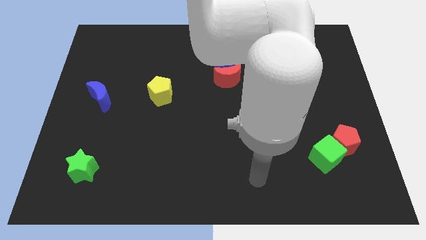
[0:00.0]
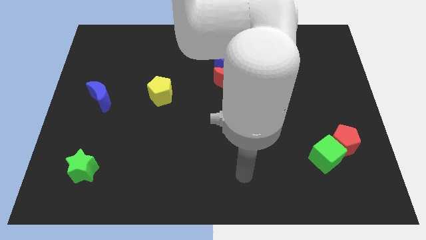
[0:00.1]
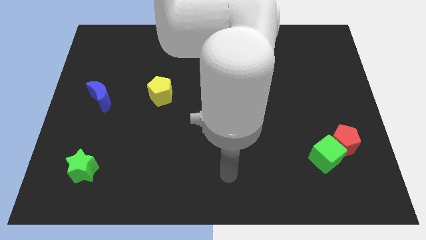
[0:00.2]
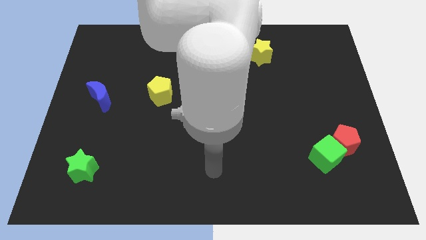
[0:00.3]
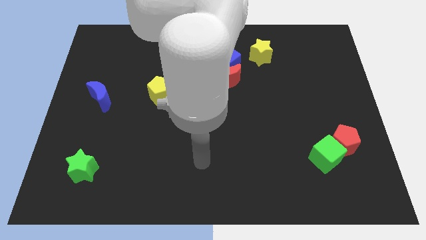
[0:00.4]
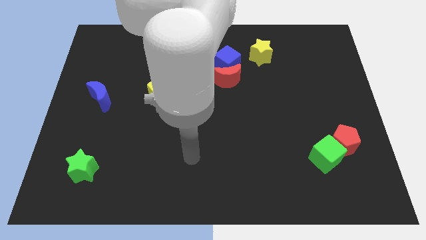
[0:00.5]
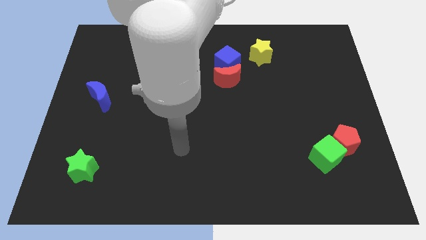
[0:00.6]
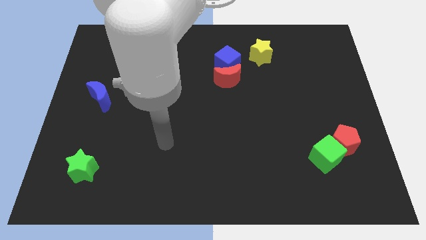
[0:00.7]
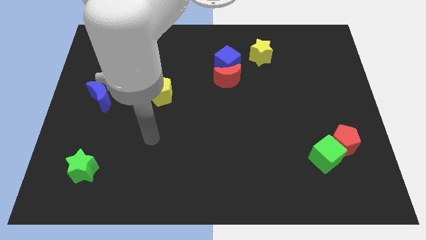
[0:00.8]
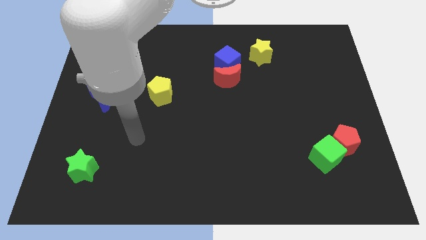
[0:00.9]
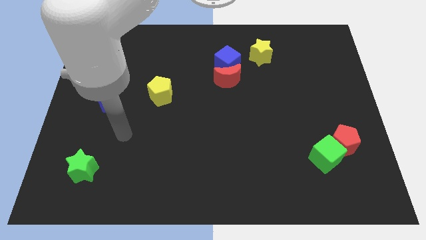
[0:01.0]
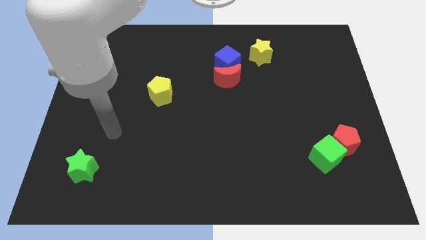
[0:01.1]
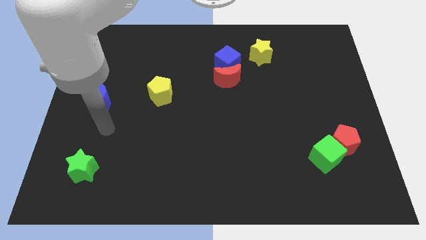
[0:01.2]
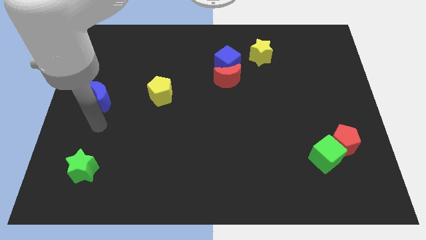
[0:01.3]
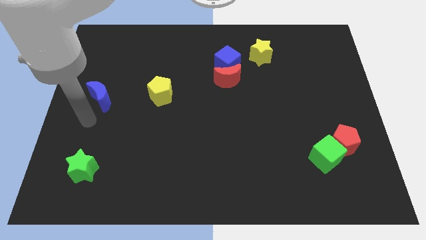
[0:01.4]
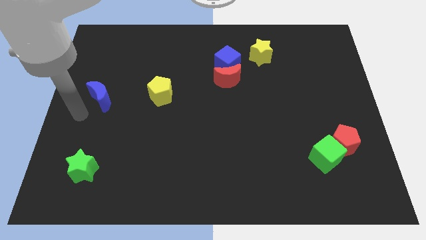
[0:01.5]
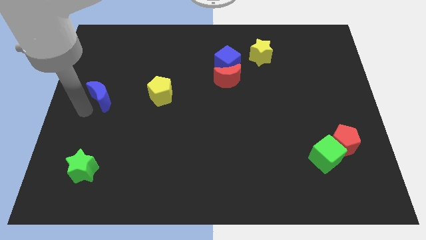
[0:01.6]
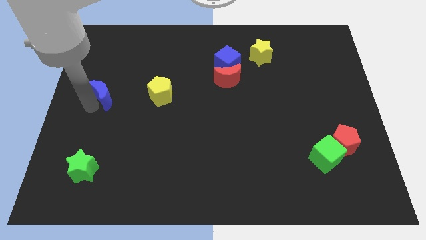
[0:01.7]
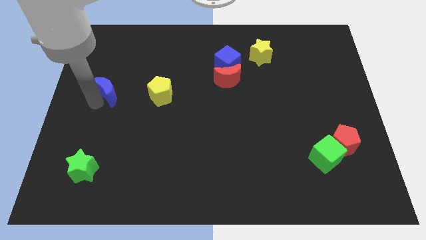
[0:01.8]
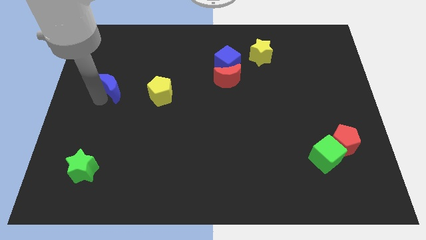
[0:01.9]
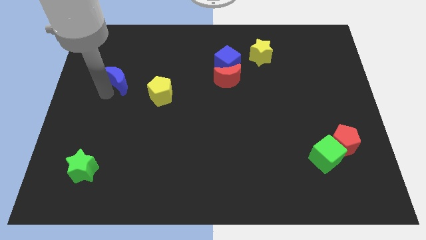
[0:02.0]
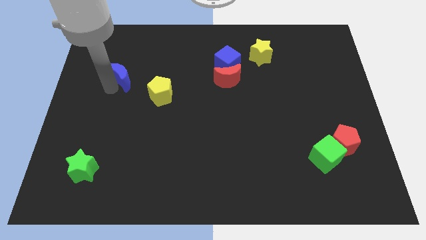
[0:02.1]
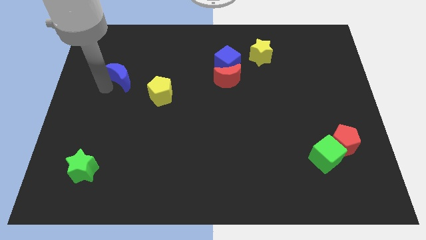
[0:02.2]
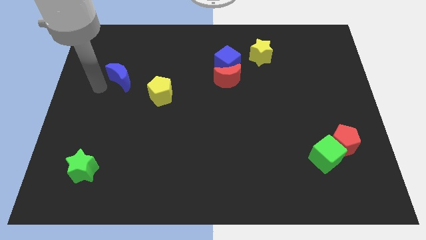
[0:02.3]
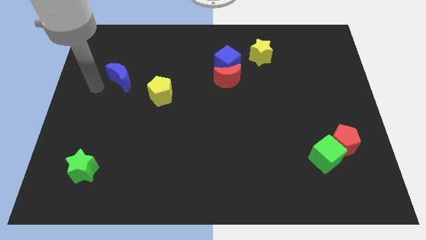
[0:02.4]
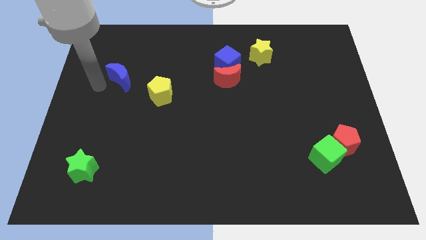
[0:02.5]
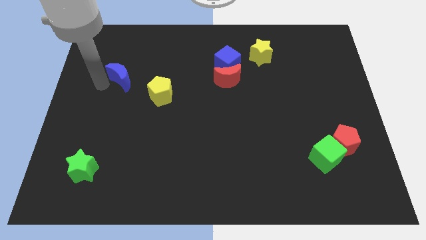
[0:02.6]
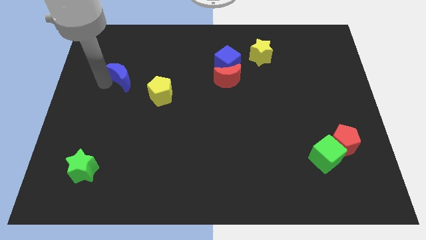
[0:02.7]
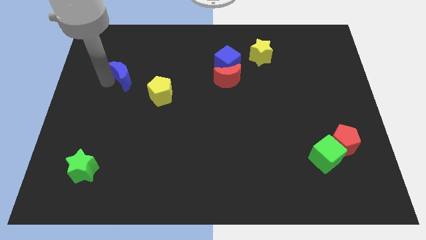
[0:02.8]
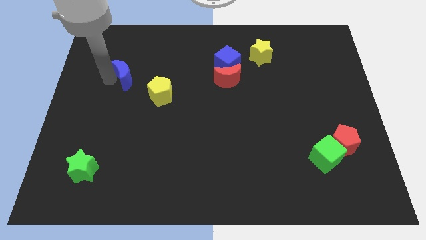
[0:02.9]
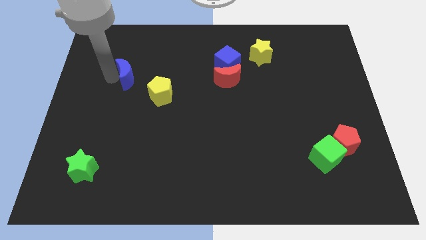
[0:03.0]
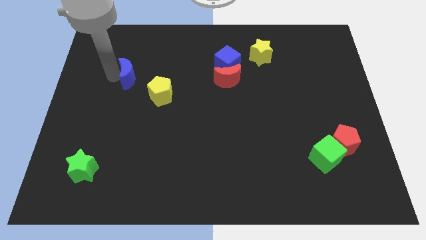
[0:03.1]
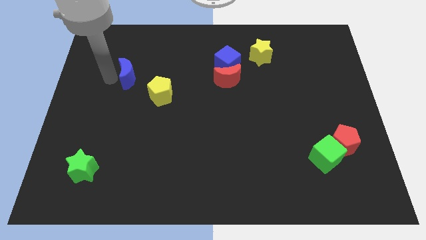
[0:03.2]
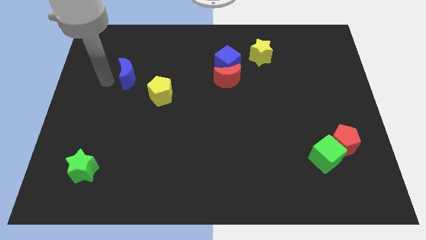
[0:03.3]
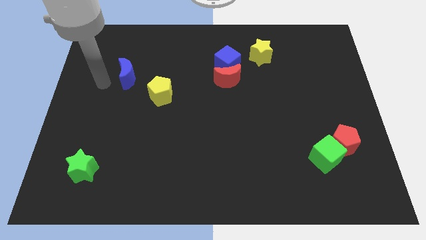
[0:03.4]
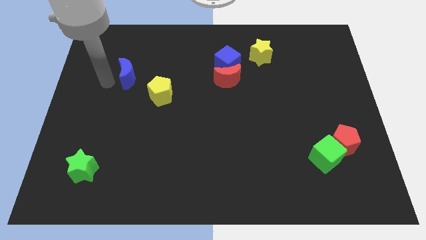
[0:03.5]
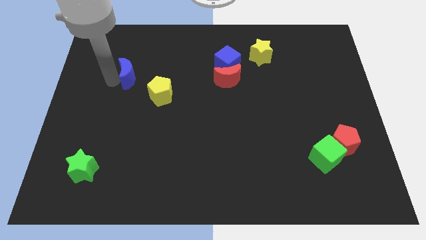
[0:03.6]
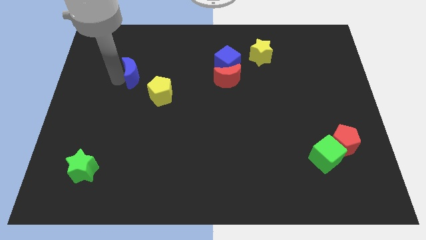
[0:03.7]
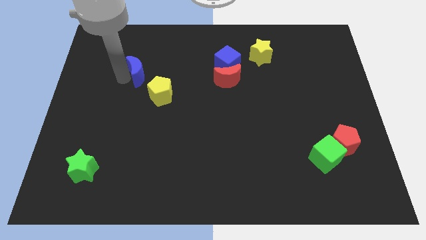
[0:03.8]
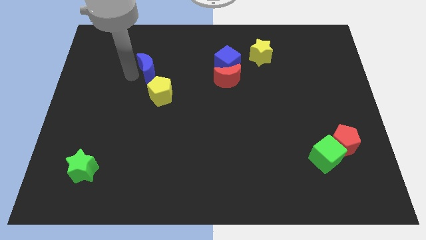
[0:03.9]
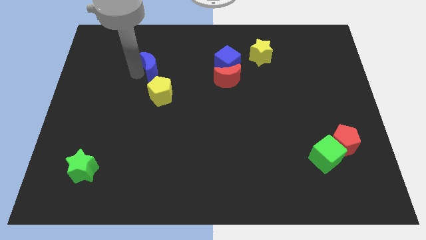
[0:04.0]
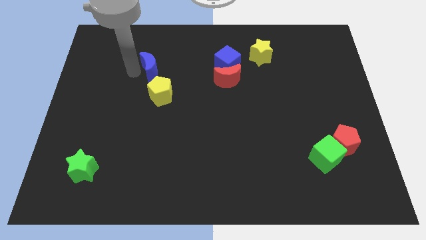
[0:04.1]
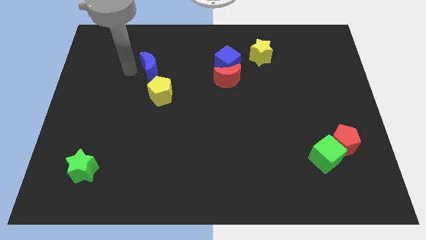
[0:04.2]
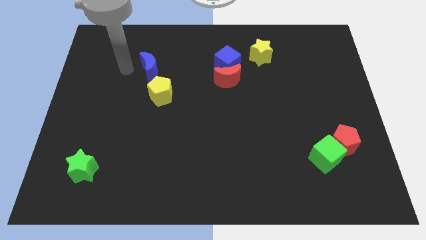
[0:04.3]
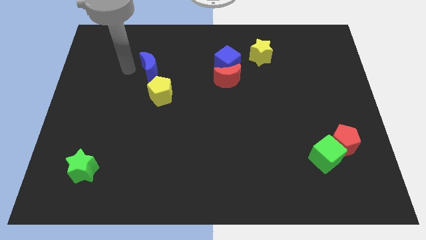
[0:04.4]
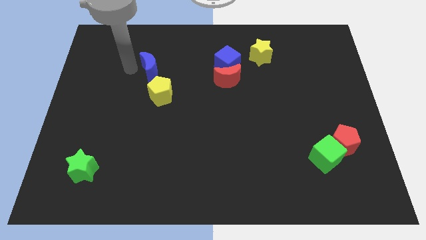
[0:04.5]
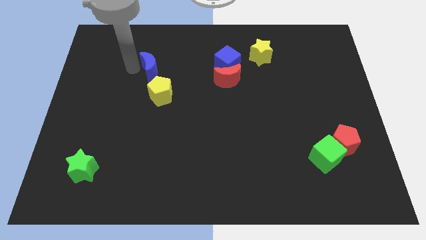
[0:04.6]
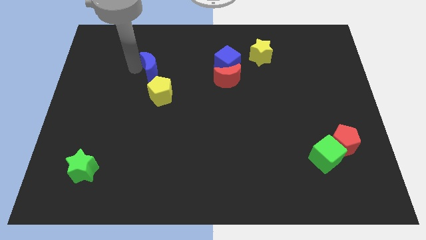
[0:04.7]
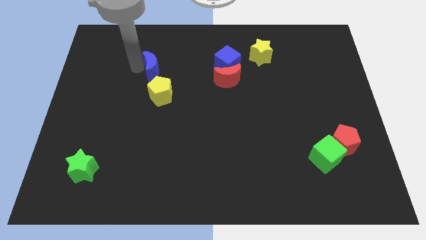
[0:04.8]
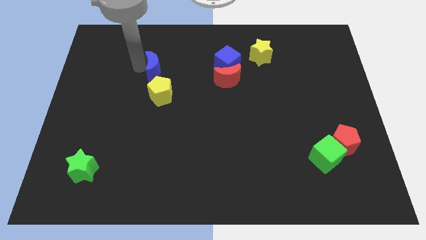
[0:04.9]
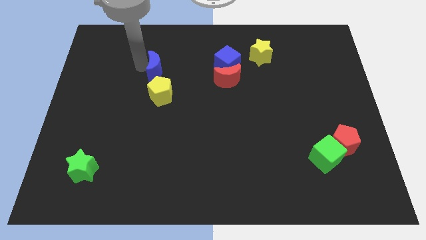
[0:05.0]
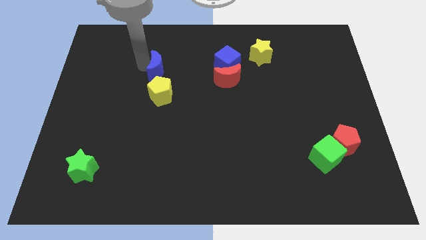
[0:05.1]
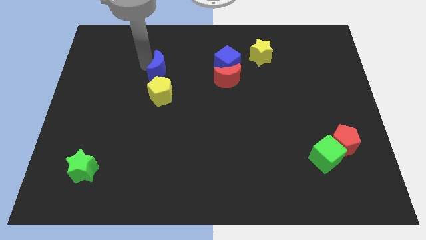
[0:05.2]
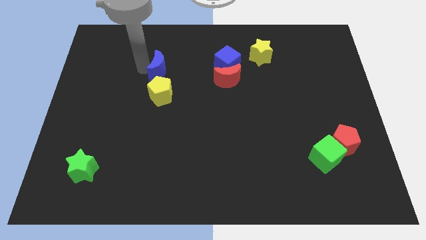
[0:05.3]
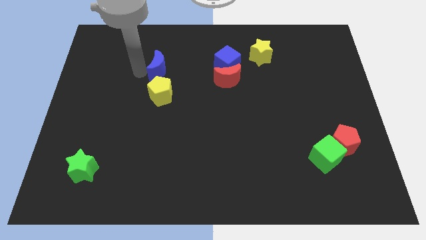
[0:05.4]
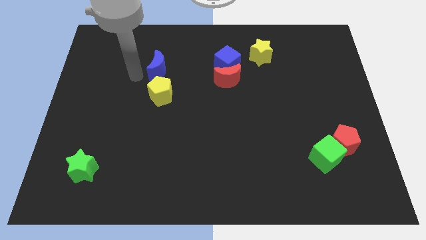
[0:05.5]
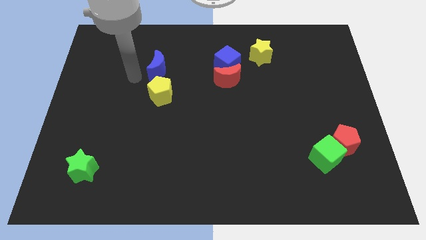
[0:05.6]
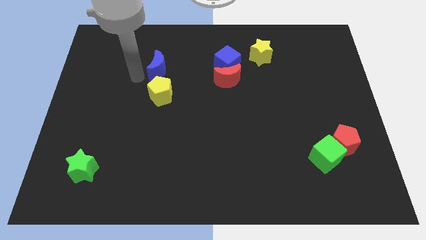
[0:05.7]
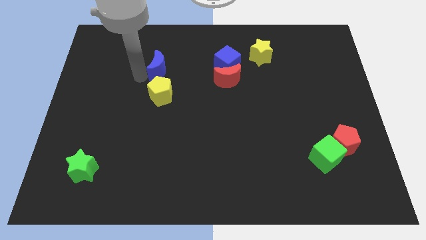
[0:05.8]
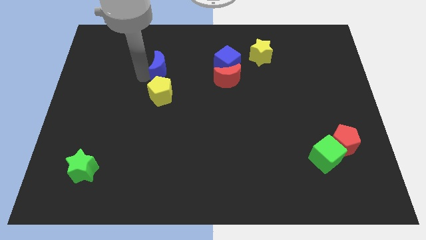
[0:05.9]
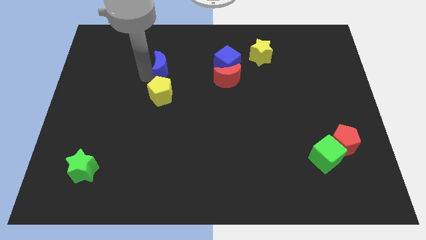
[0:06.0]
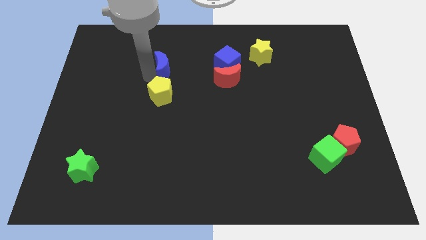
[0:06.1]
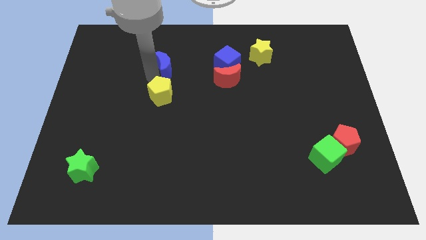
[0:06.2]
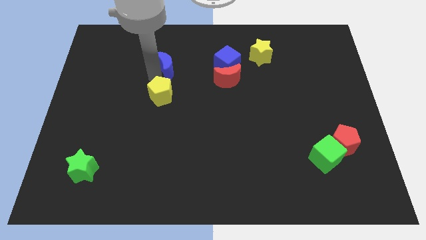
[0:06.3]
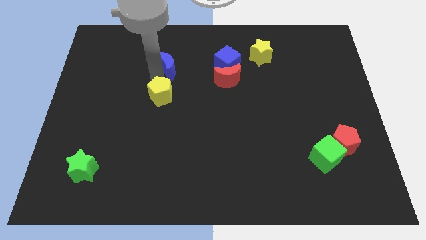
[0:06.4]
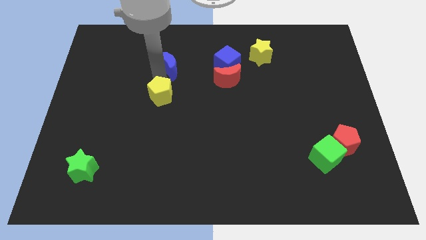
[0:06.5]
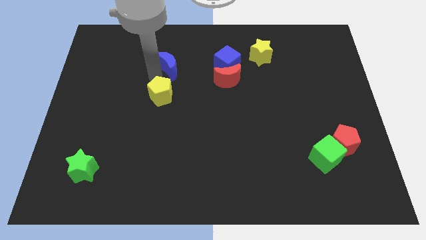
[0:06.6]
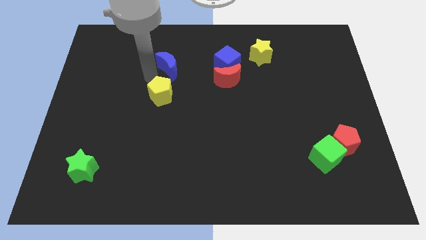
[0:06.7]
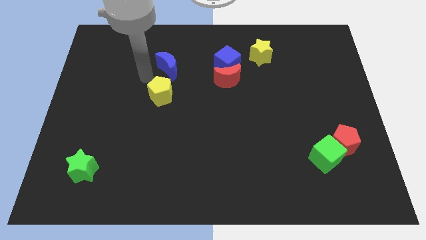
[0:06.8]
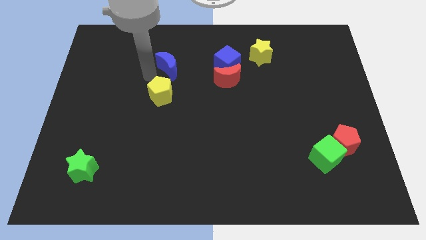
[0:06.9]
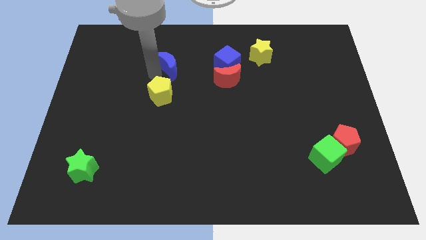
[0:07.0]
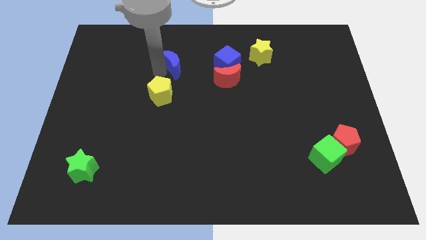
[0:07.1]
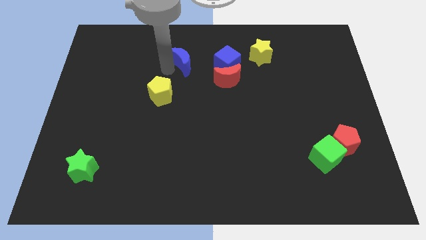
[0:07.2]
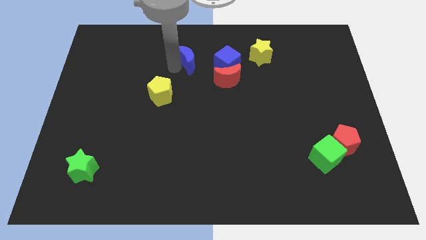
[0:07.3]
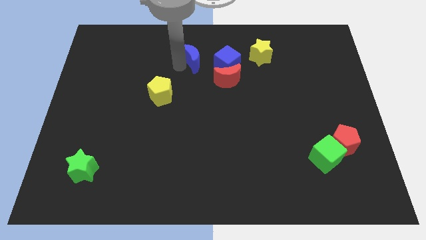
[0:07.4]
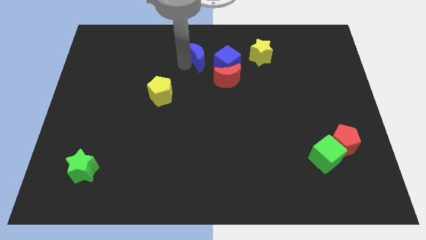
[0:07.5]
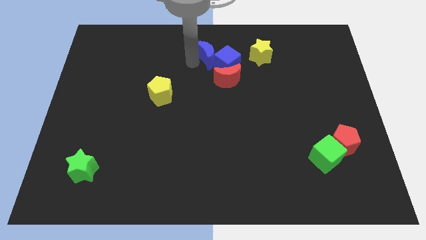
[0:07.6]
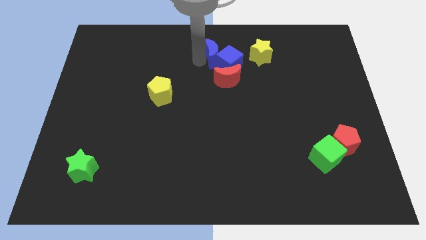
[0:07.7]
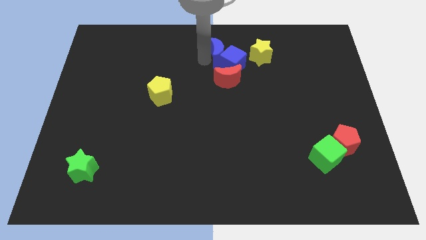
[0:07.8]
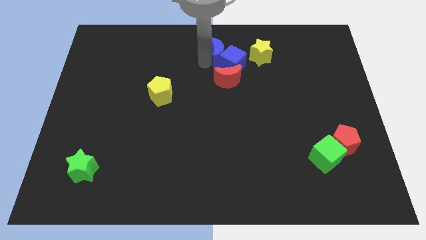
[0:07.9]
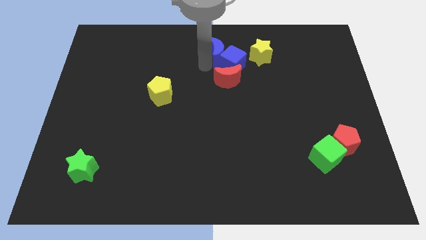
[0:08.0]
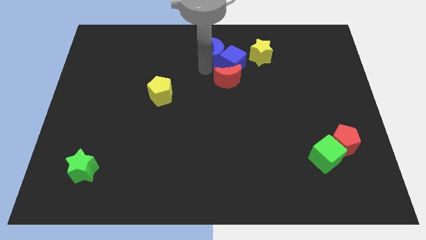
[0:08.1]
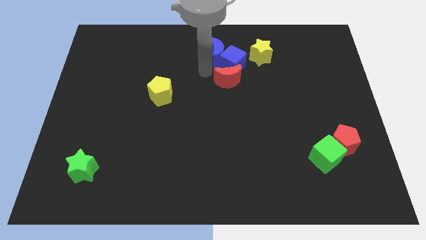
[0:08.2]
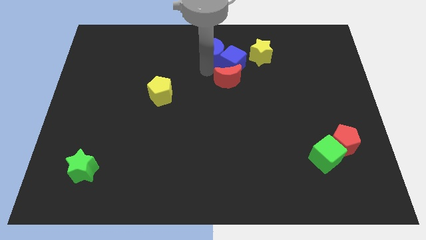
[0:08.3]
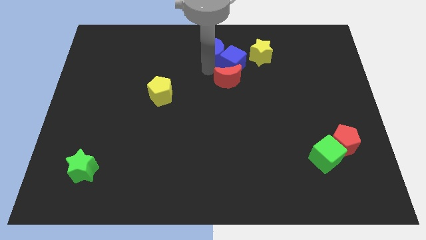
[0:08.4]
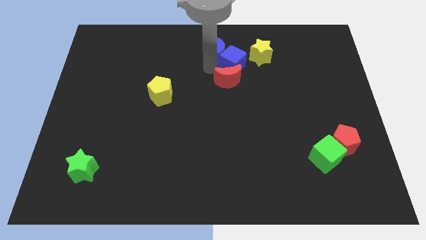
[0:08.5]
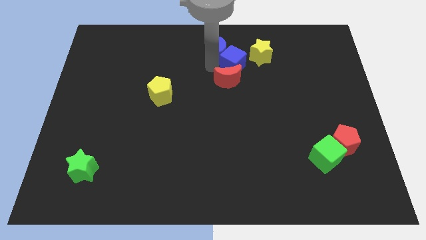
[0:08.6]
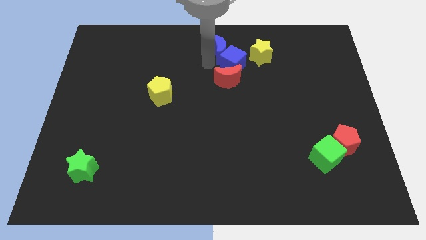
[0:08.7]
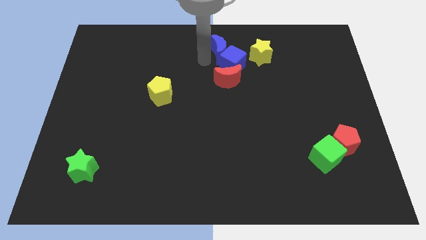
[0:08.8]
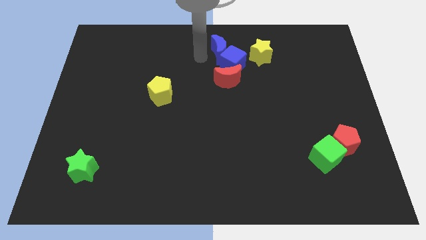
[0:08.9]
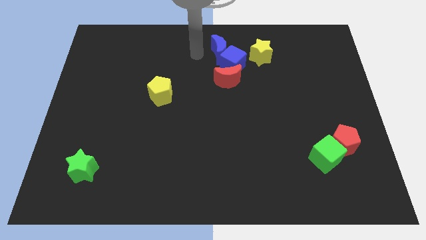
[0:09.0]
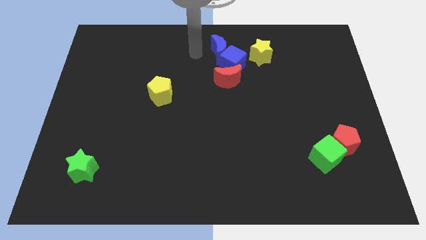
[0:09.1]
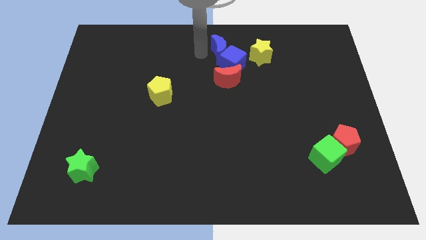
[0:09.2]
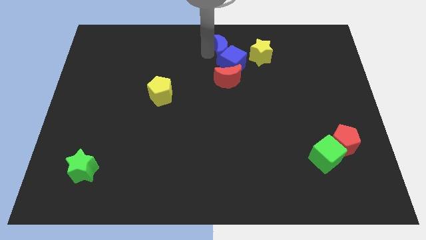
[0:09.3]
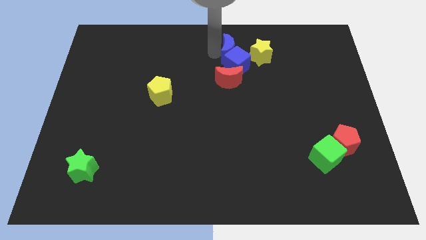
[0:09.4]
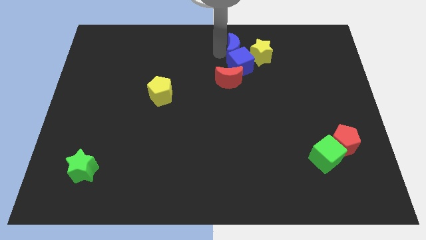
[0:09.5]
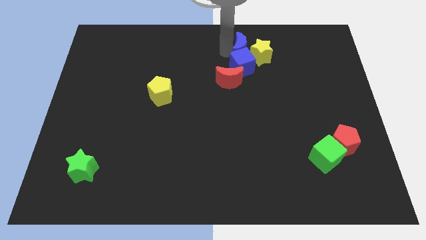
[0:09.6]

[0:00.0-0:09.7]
move the blue moon next to the yellow star
